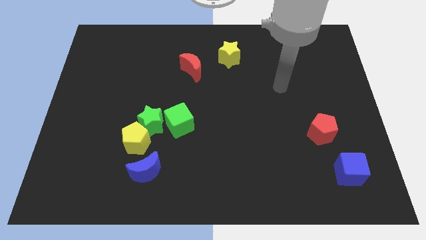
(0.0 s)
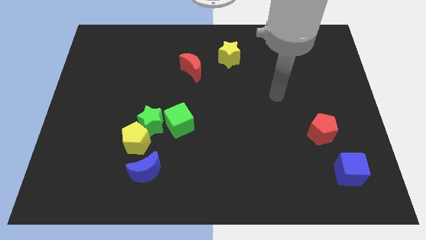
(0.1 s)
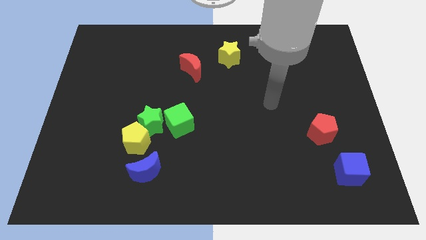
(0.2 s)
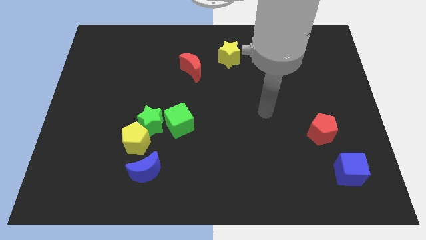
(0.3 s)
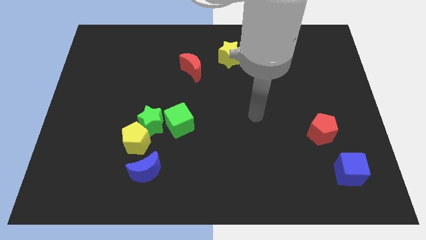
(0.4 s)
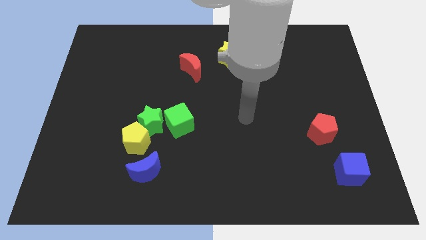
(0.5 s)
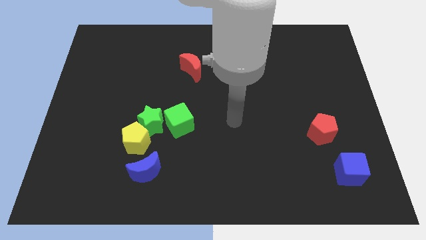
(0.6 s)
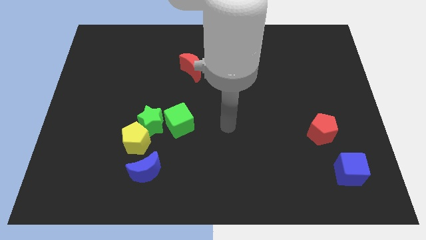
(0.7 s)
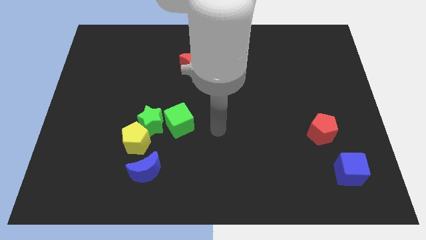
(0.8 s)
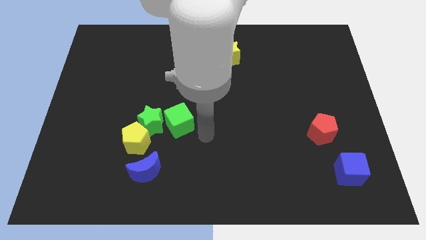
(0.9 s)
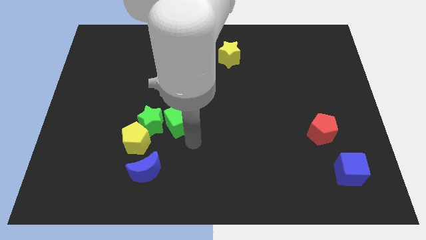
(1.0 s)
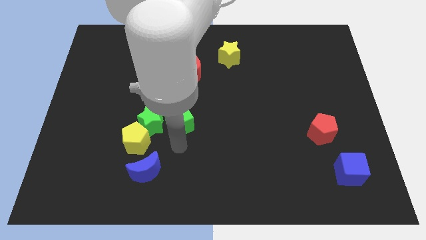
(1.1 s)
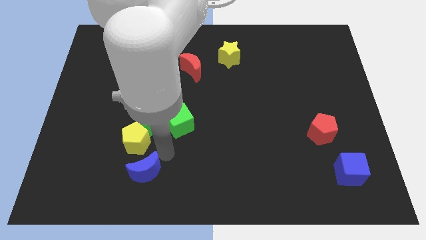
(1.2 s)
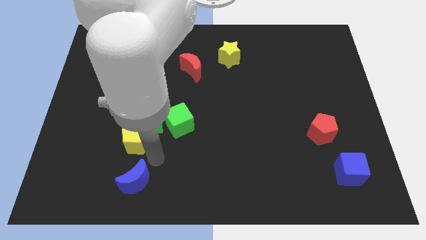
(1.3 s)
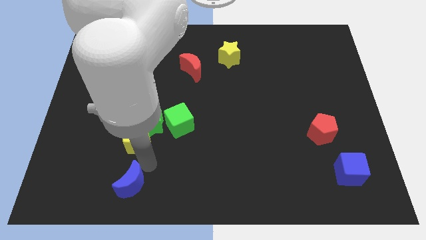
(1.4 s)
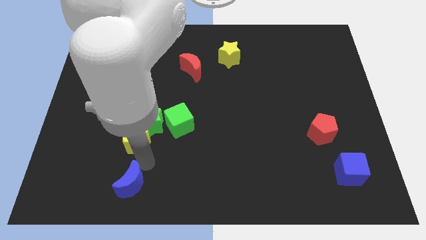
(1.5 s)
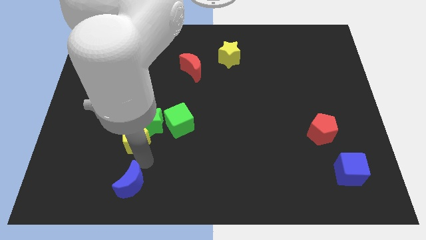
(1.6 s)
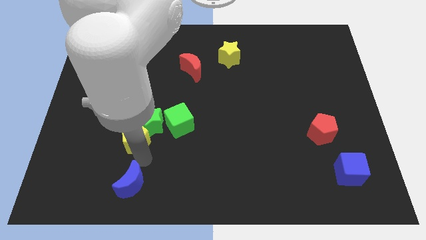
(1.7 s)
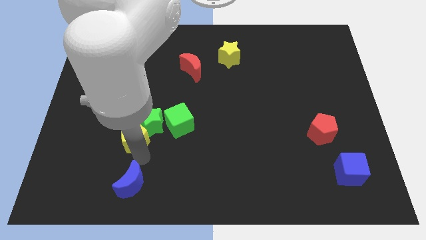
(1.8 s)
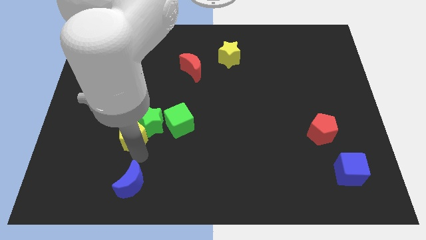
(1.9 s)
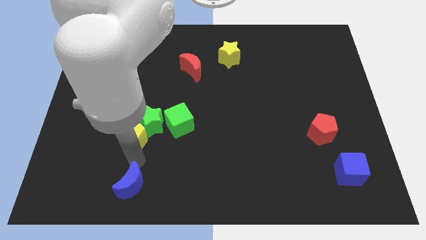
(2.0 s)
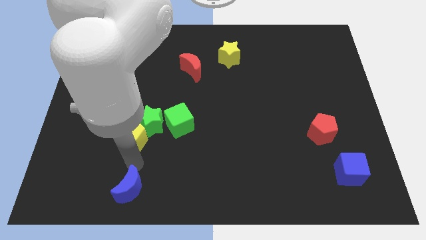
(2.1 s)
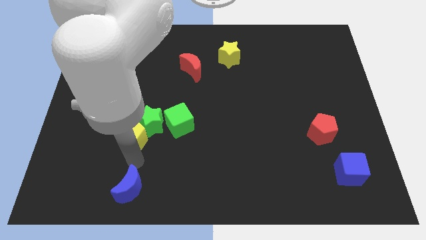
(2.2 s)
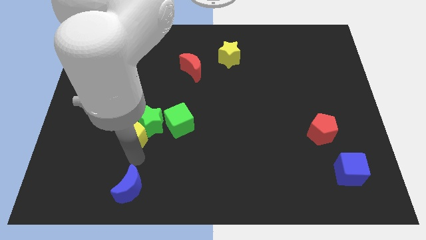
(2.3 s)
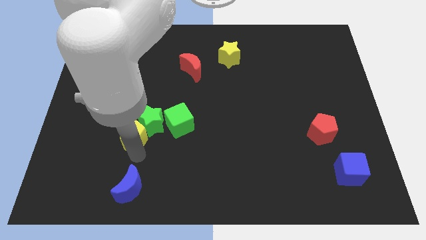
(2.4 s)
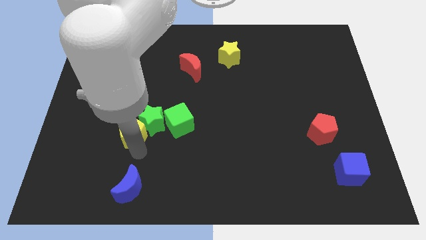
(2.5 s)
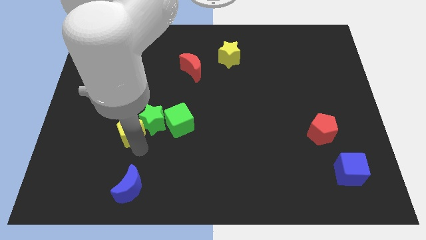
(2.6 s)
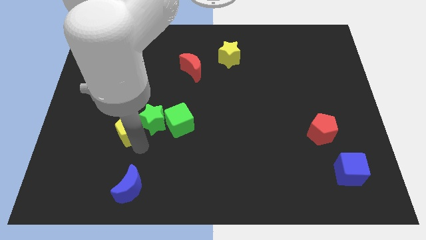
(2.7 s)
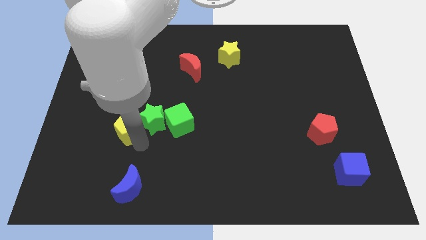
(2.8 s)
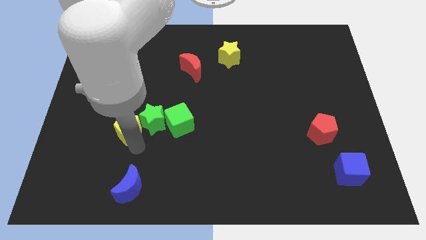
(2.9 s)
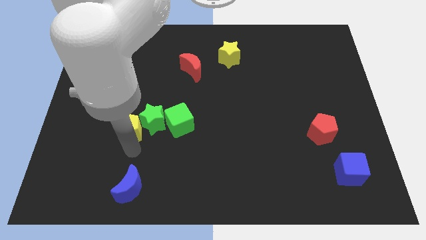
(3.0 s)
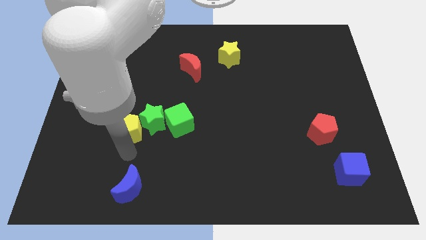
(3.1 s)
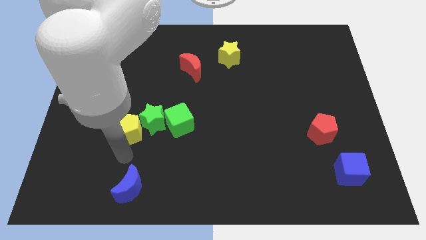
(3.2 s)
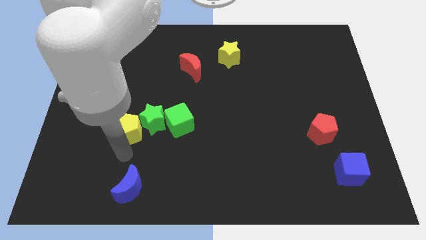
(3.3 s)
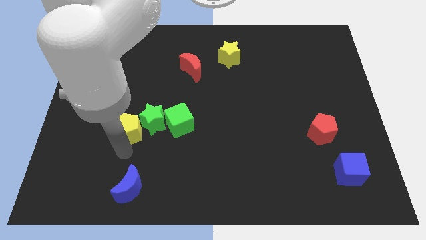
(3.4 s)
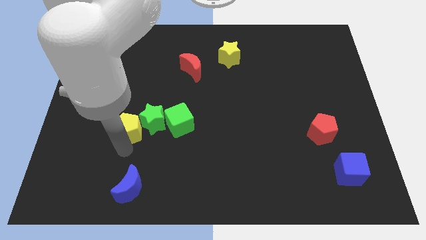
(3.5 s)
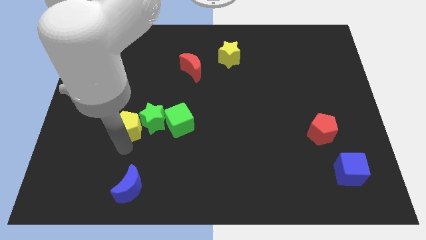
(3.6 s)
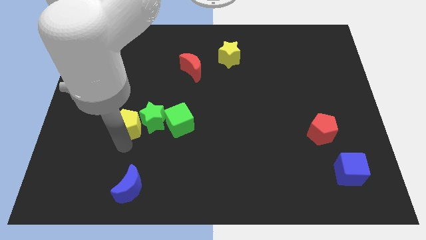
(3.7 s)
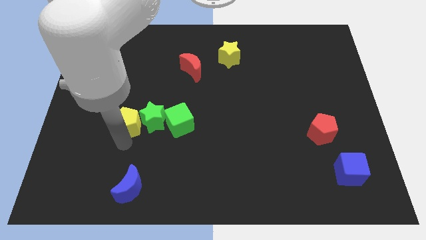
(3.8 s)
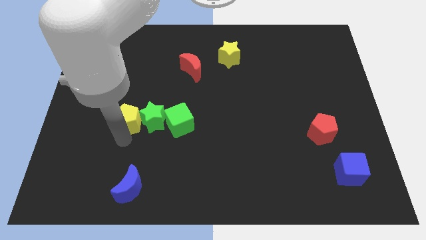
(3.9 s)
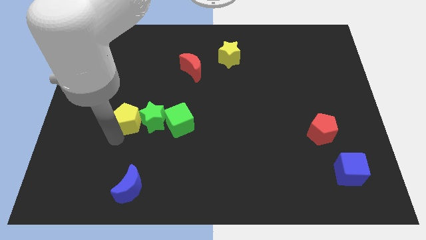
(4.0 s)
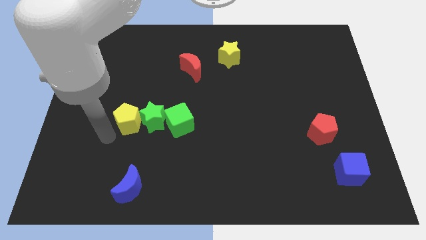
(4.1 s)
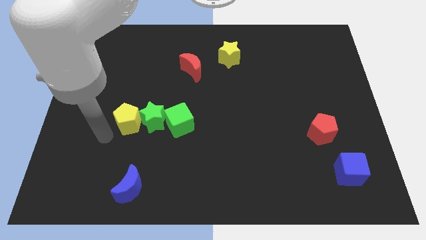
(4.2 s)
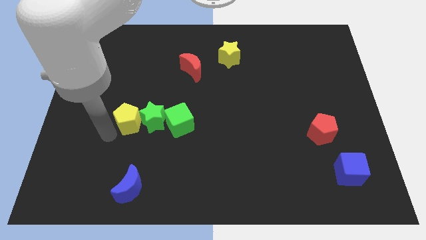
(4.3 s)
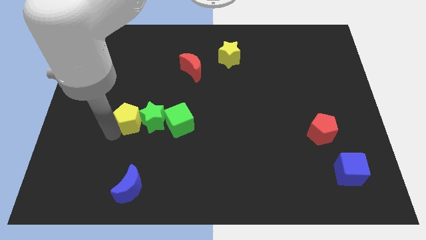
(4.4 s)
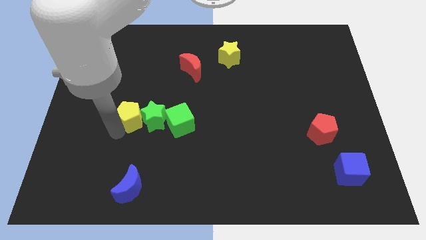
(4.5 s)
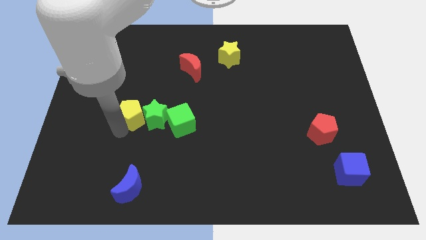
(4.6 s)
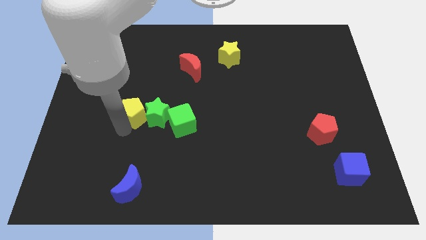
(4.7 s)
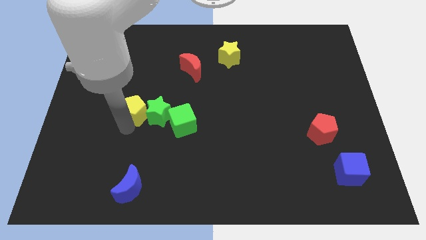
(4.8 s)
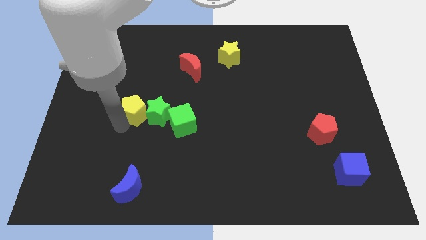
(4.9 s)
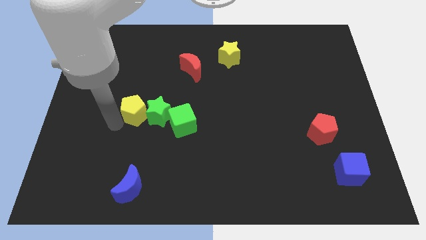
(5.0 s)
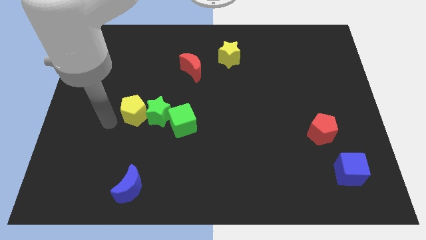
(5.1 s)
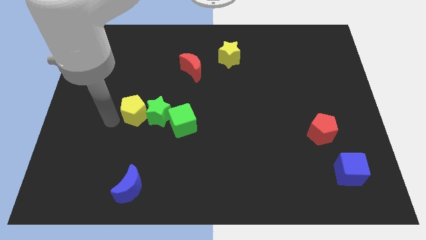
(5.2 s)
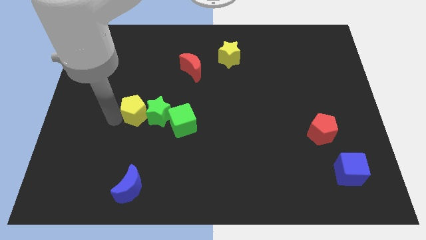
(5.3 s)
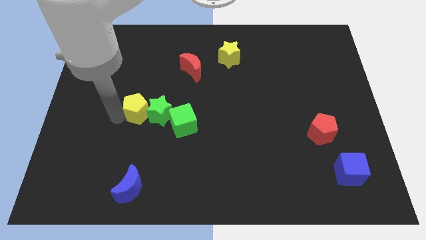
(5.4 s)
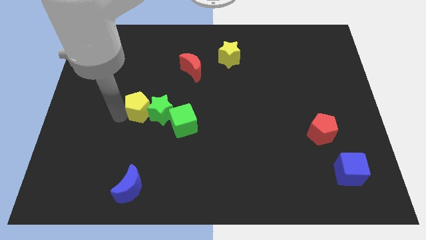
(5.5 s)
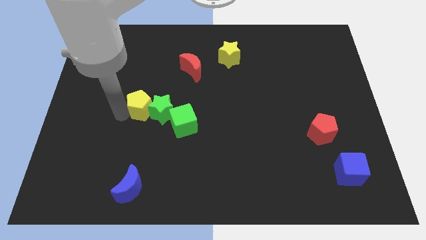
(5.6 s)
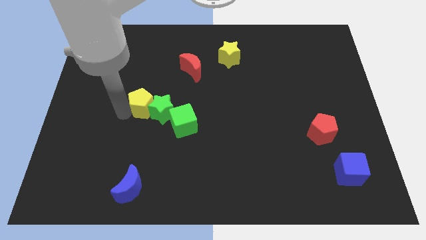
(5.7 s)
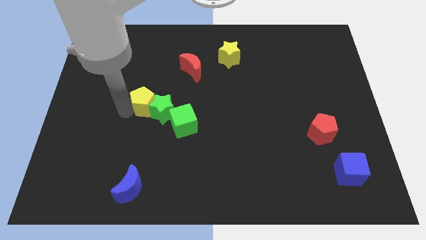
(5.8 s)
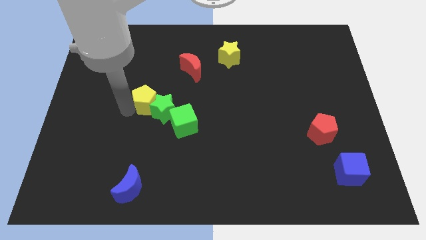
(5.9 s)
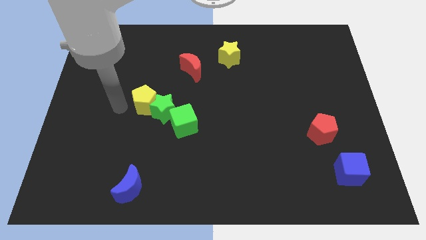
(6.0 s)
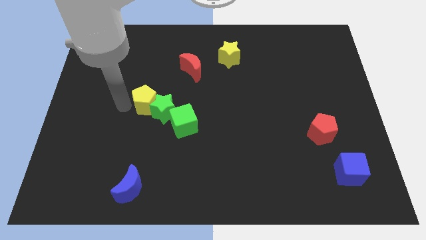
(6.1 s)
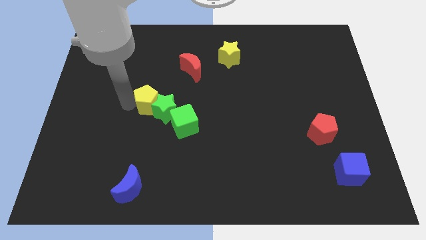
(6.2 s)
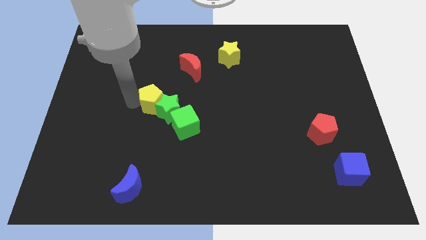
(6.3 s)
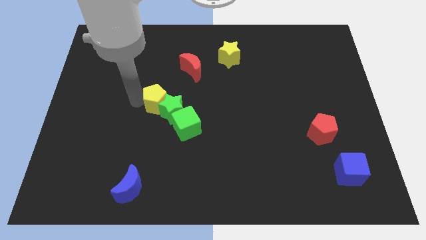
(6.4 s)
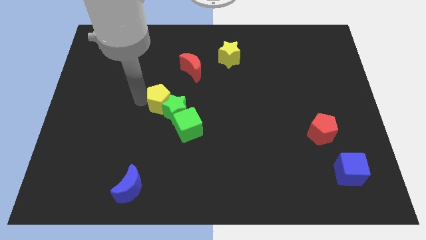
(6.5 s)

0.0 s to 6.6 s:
move the yellow pentagon to the middle

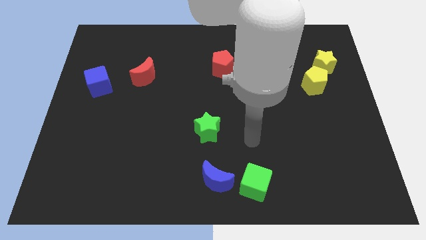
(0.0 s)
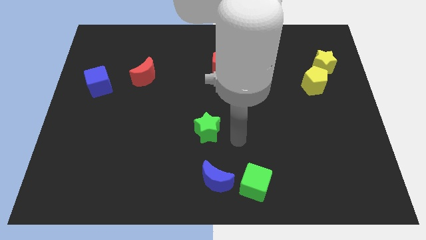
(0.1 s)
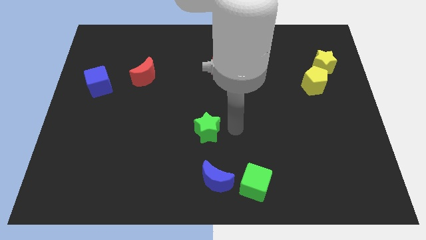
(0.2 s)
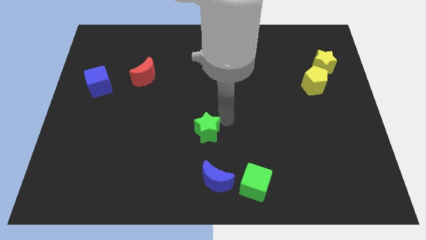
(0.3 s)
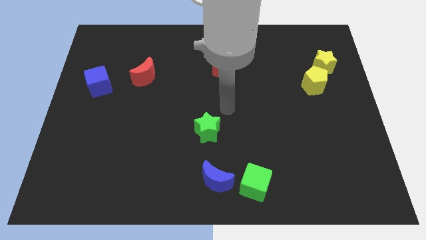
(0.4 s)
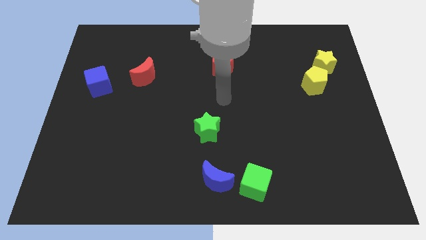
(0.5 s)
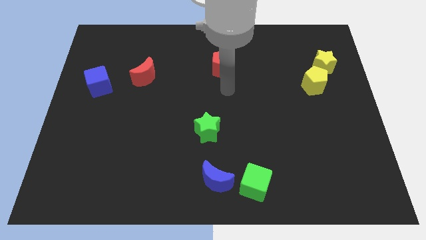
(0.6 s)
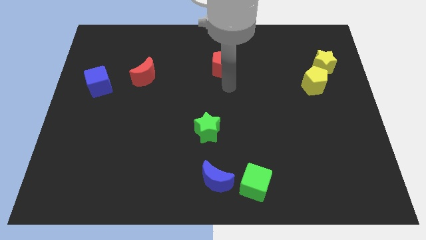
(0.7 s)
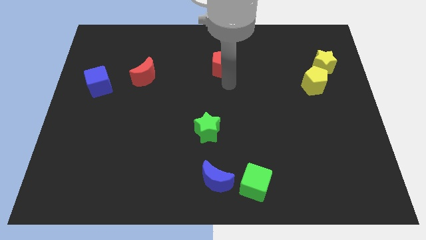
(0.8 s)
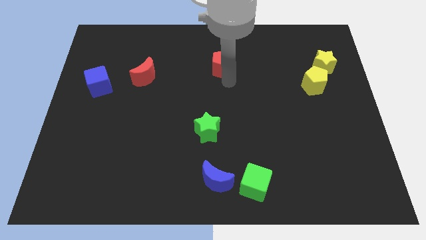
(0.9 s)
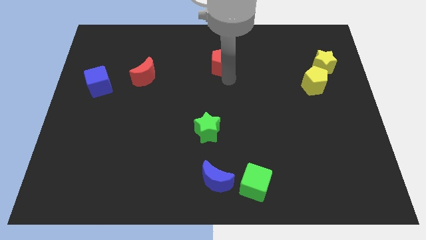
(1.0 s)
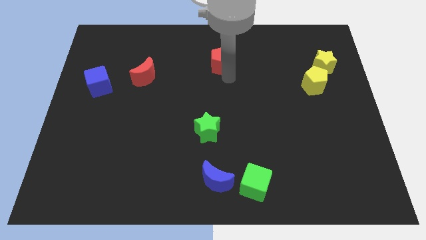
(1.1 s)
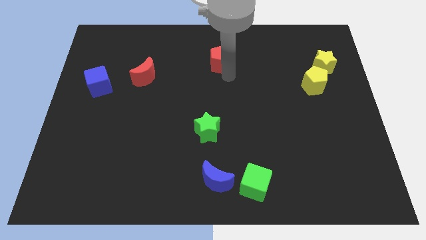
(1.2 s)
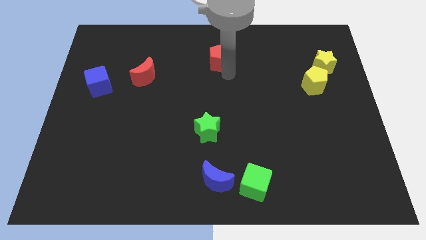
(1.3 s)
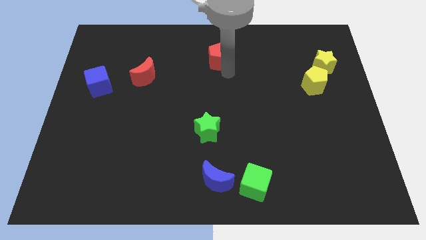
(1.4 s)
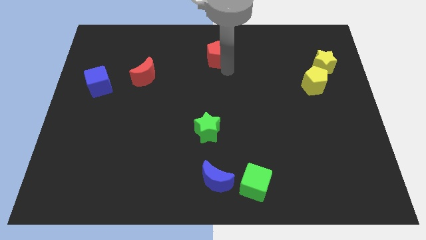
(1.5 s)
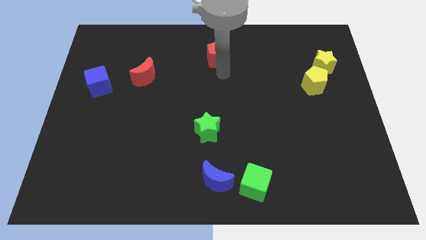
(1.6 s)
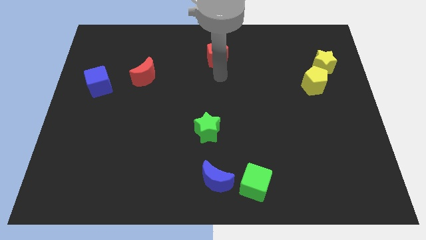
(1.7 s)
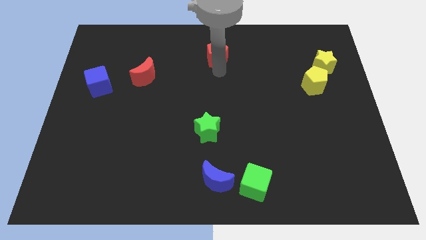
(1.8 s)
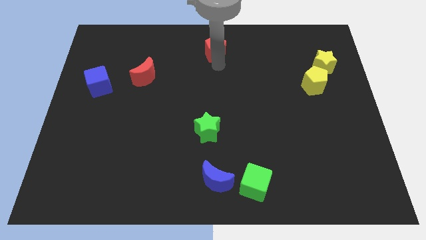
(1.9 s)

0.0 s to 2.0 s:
put the red pentagon to the towards your base
